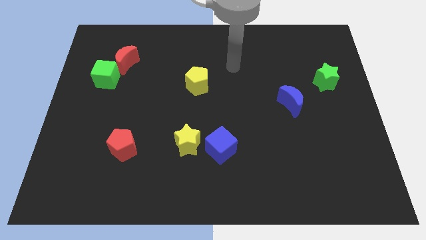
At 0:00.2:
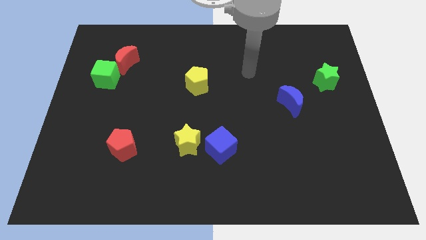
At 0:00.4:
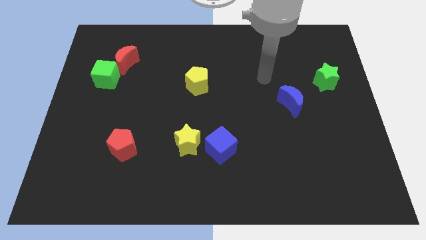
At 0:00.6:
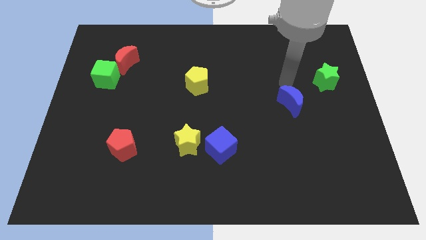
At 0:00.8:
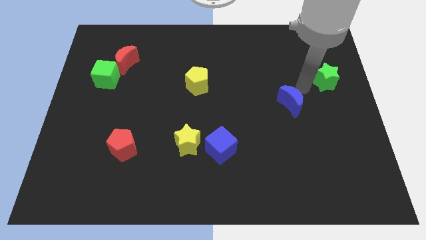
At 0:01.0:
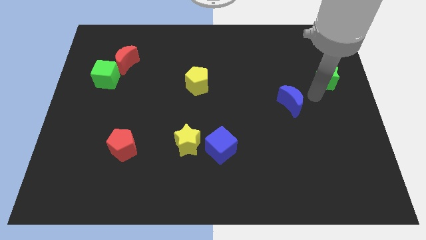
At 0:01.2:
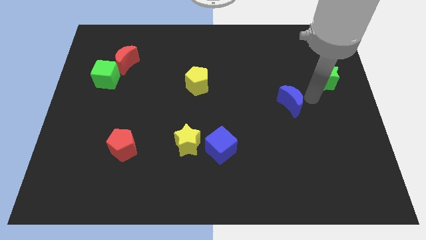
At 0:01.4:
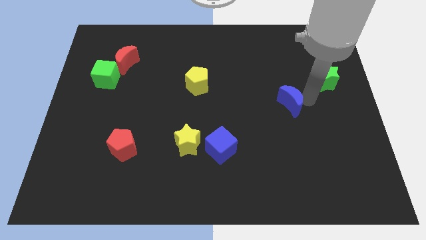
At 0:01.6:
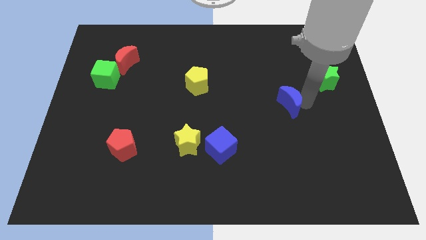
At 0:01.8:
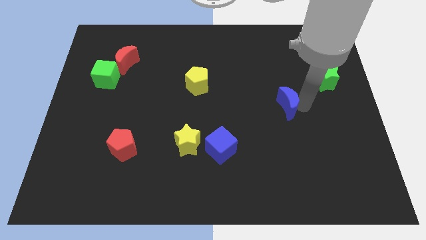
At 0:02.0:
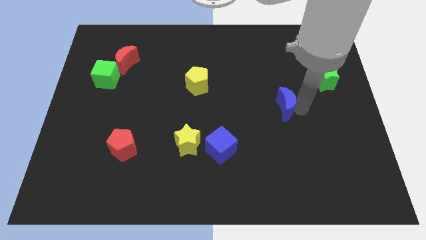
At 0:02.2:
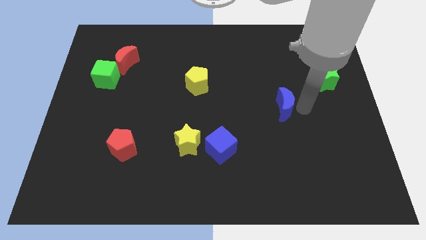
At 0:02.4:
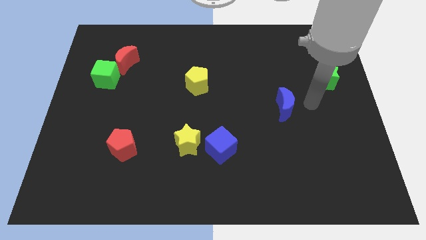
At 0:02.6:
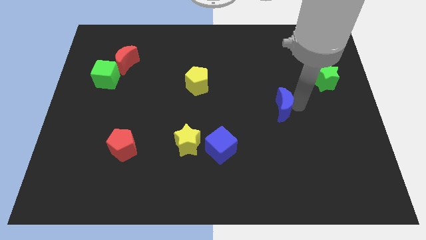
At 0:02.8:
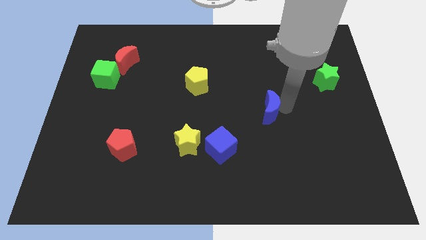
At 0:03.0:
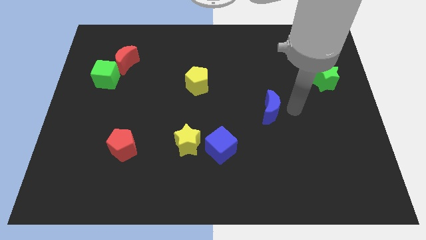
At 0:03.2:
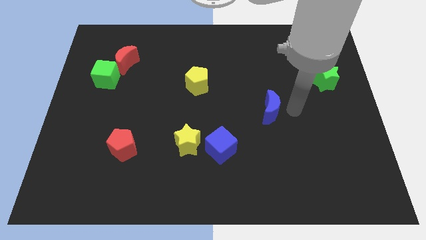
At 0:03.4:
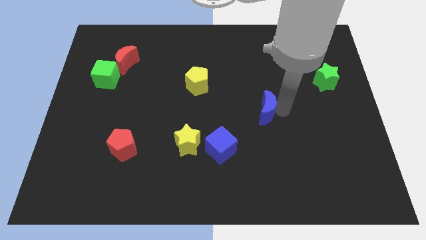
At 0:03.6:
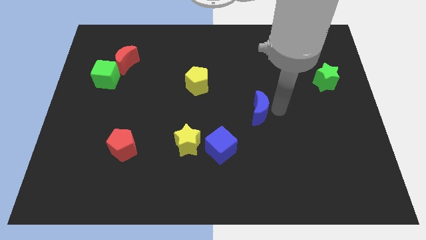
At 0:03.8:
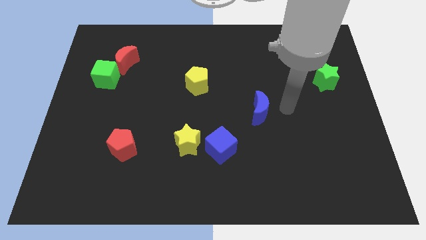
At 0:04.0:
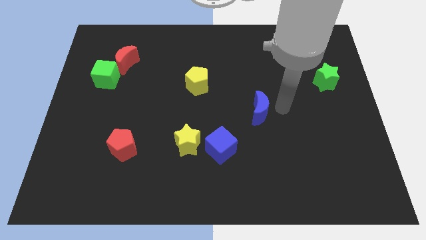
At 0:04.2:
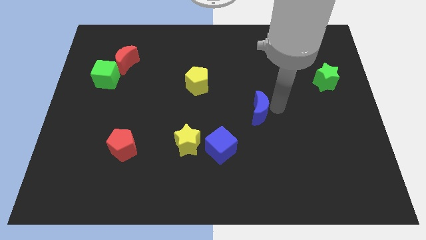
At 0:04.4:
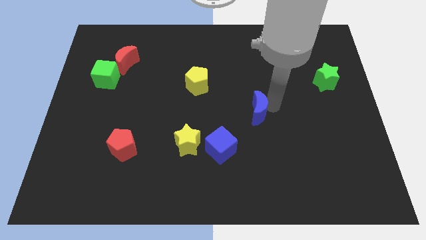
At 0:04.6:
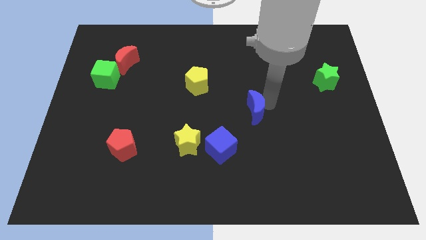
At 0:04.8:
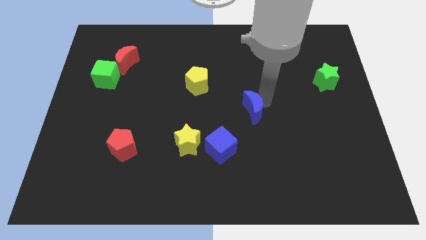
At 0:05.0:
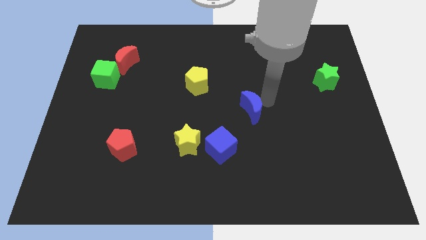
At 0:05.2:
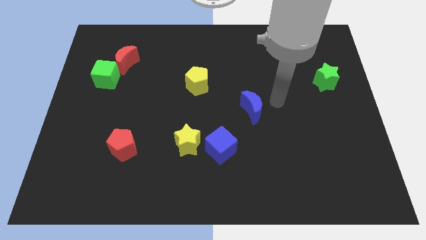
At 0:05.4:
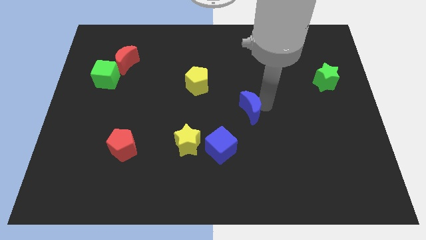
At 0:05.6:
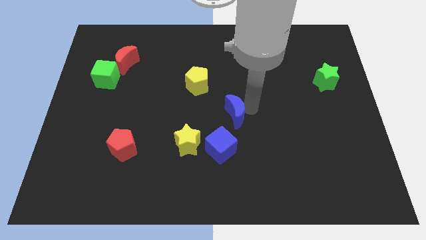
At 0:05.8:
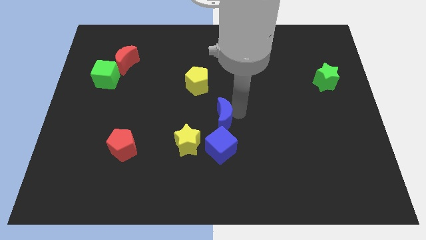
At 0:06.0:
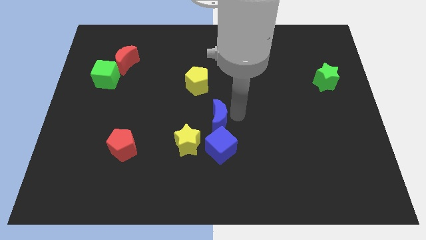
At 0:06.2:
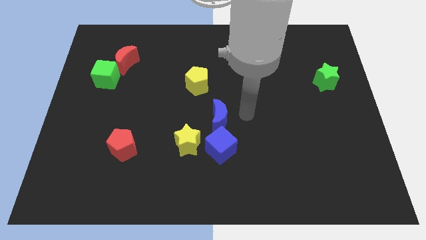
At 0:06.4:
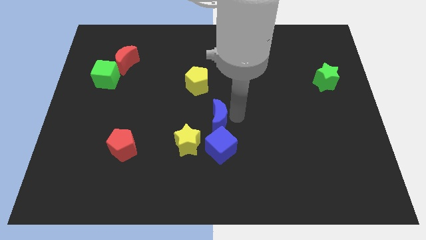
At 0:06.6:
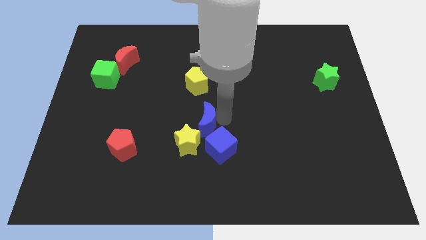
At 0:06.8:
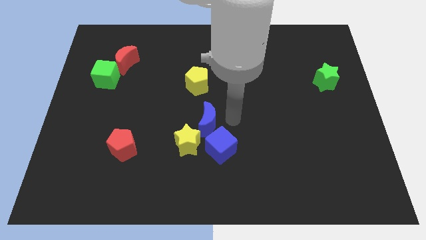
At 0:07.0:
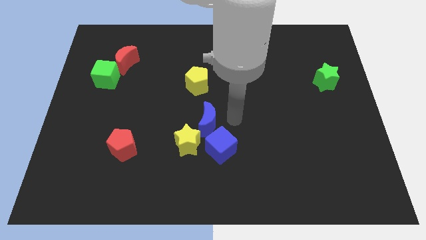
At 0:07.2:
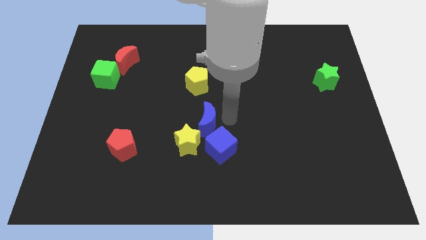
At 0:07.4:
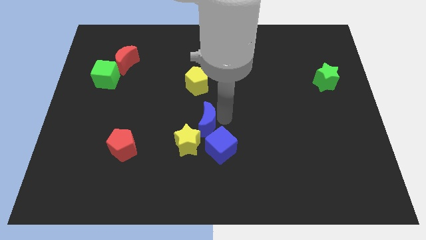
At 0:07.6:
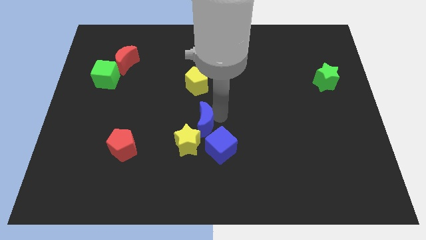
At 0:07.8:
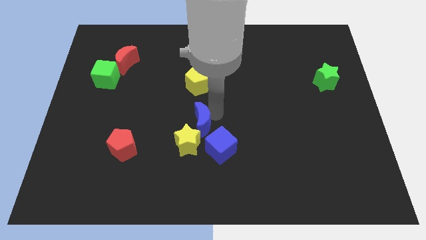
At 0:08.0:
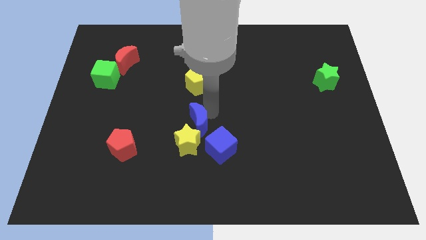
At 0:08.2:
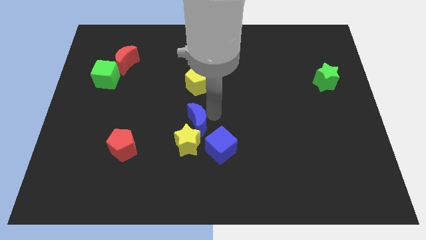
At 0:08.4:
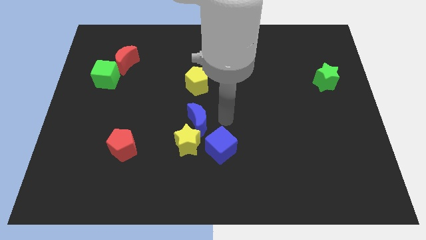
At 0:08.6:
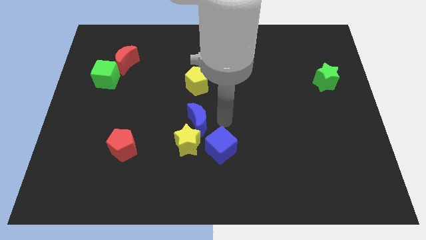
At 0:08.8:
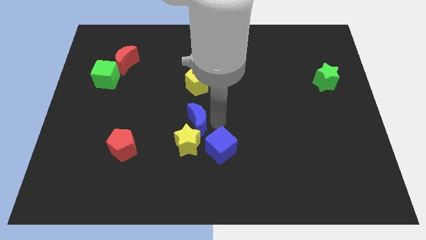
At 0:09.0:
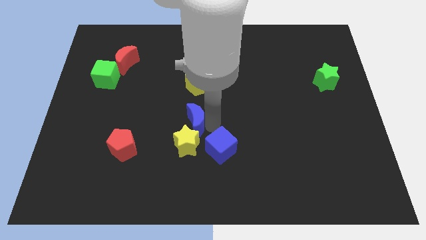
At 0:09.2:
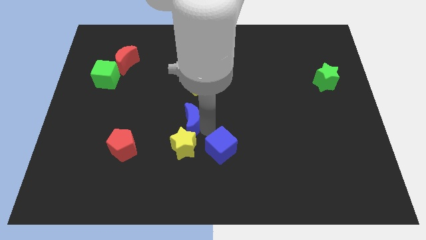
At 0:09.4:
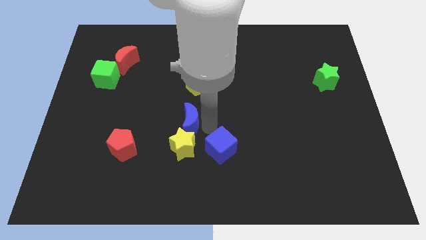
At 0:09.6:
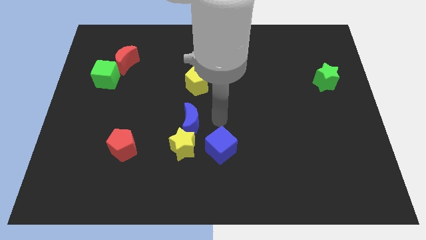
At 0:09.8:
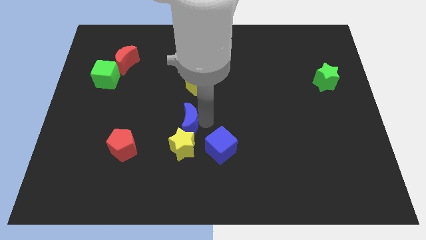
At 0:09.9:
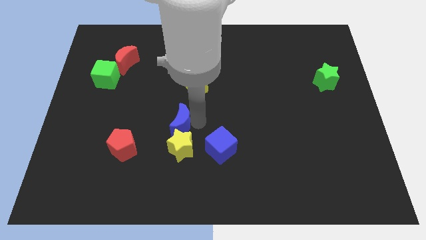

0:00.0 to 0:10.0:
push the blue moon diagonally up and to the left of the yellow star

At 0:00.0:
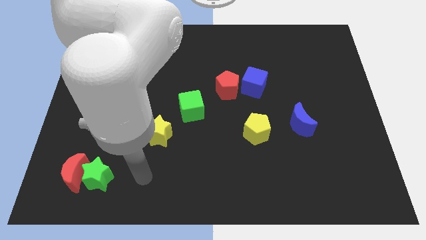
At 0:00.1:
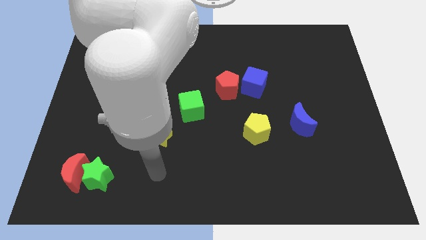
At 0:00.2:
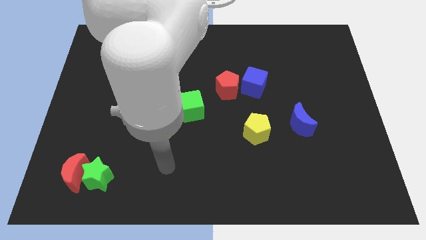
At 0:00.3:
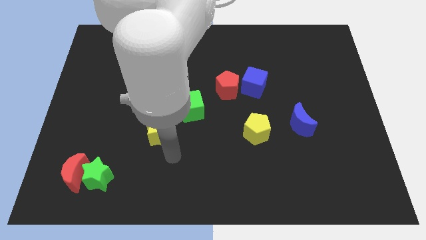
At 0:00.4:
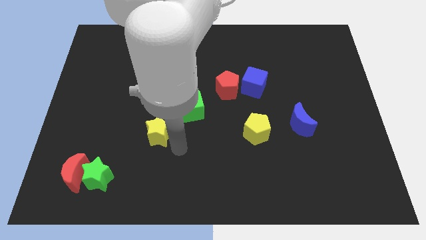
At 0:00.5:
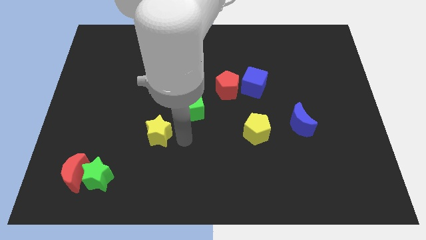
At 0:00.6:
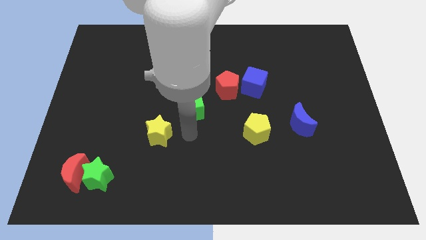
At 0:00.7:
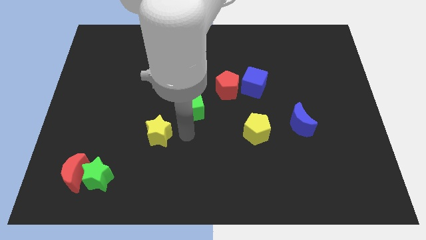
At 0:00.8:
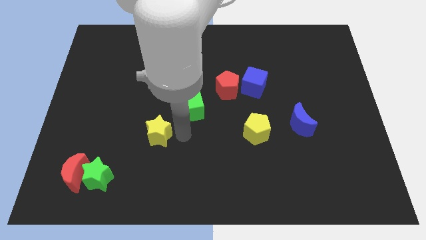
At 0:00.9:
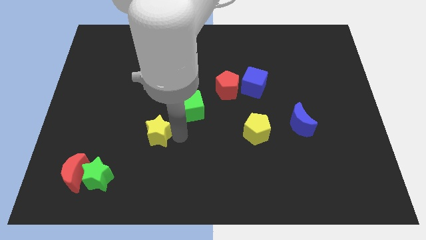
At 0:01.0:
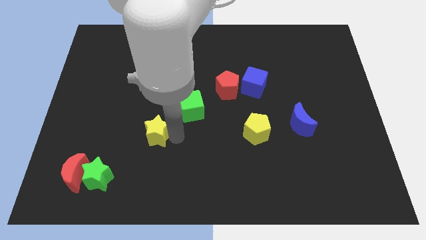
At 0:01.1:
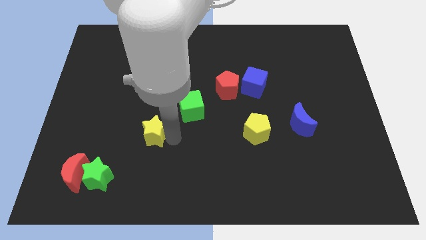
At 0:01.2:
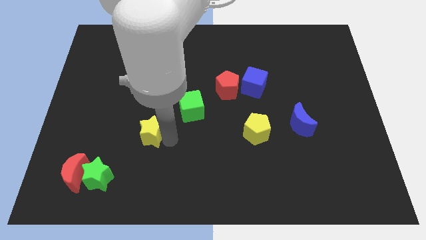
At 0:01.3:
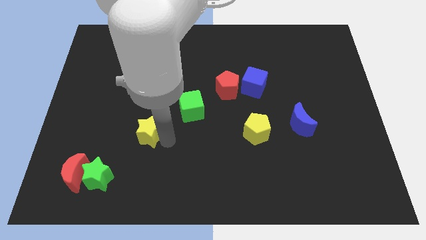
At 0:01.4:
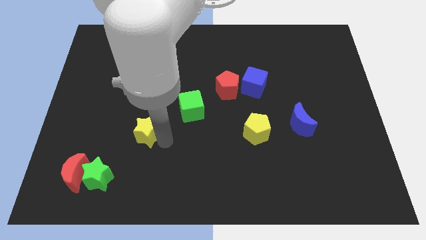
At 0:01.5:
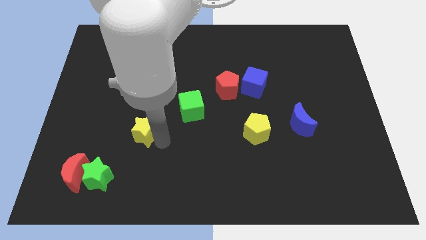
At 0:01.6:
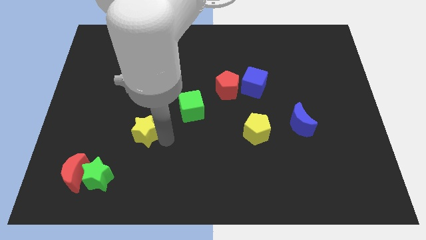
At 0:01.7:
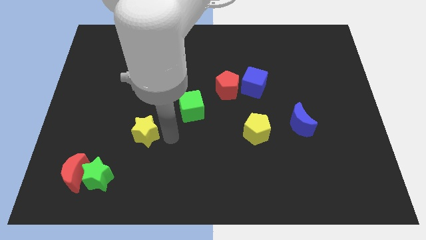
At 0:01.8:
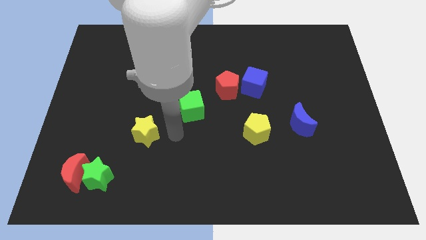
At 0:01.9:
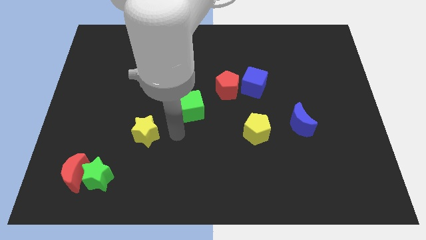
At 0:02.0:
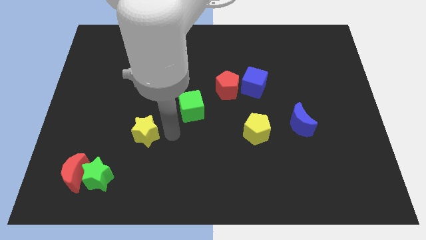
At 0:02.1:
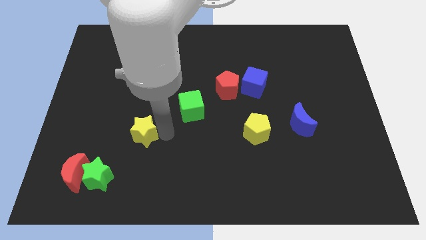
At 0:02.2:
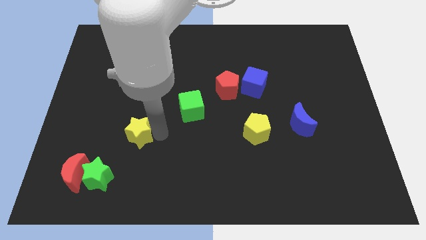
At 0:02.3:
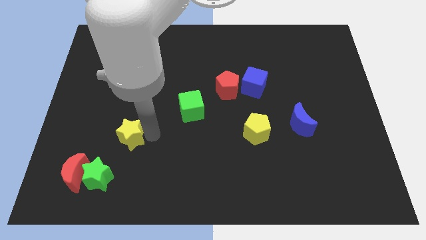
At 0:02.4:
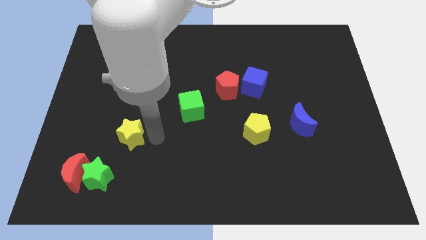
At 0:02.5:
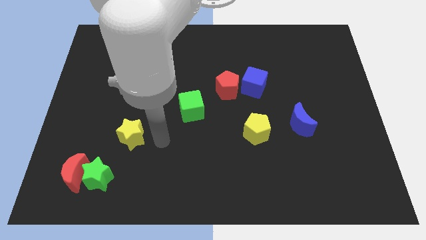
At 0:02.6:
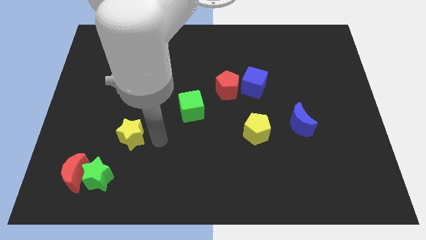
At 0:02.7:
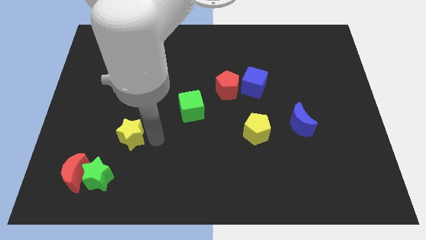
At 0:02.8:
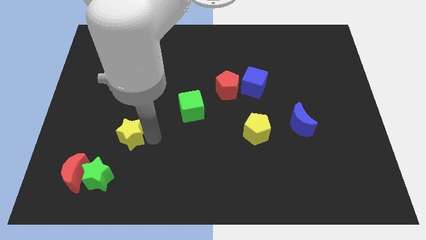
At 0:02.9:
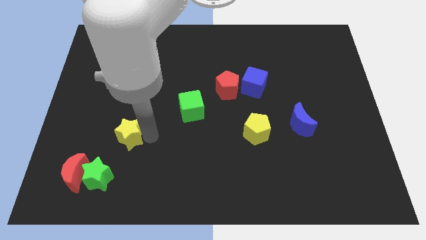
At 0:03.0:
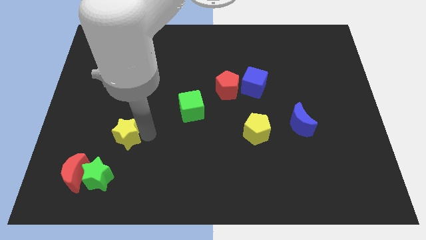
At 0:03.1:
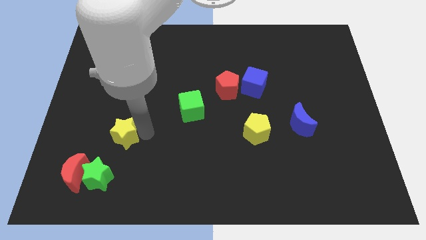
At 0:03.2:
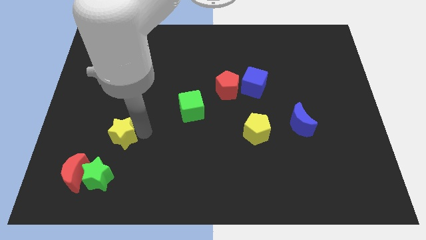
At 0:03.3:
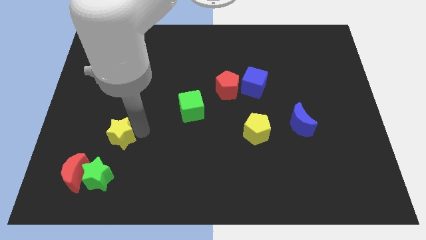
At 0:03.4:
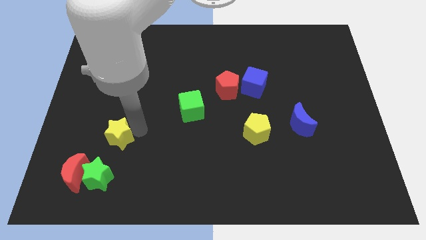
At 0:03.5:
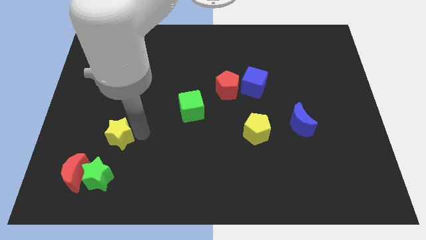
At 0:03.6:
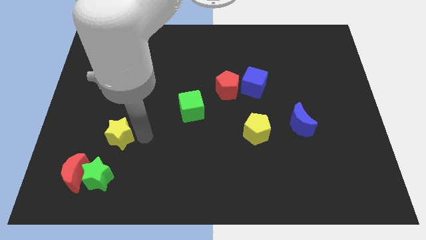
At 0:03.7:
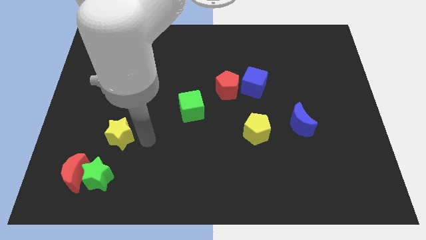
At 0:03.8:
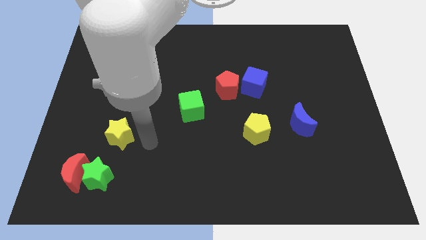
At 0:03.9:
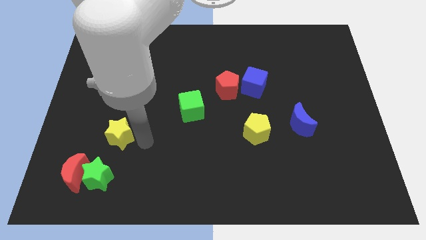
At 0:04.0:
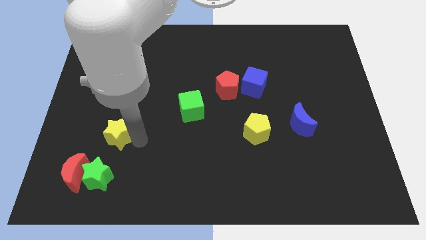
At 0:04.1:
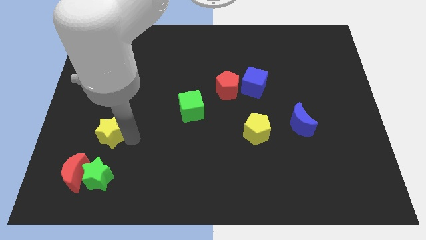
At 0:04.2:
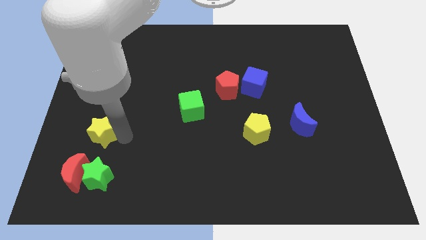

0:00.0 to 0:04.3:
slide the yellow star above the red moon
